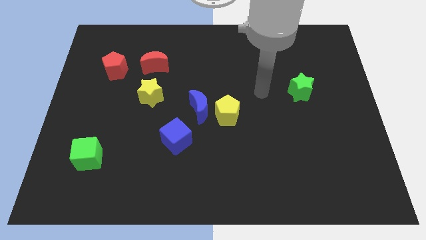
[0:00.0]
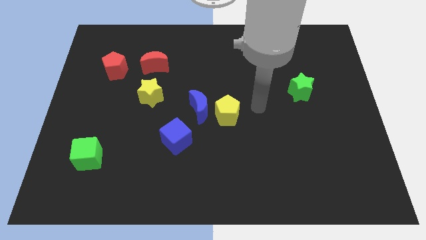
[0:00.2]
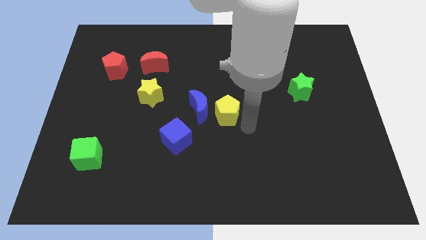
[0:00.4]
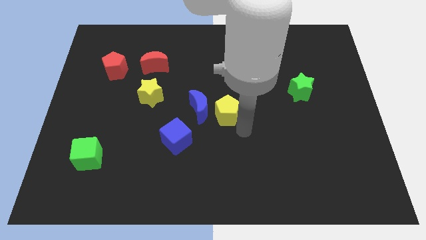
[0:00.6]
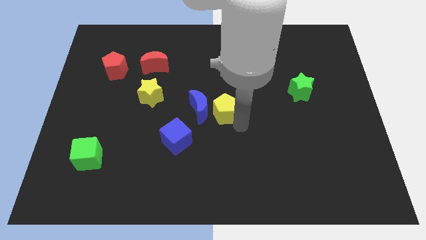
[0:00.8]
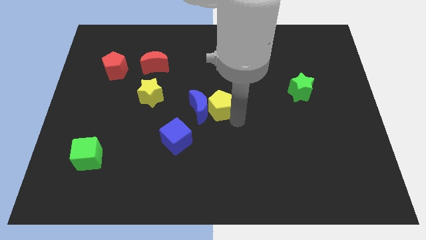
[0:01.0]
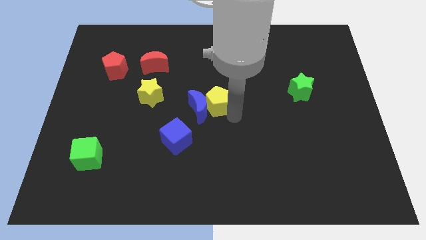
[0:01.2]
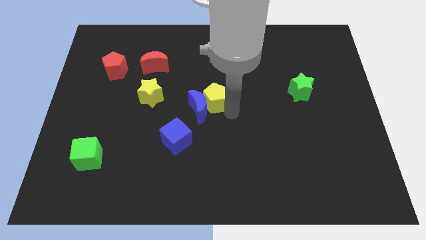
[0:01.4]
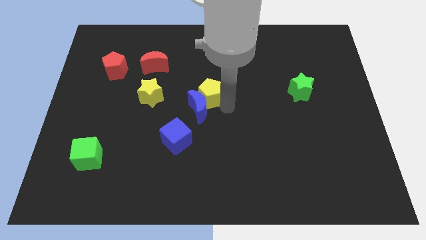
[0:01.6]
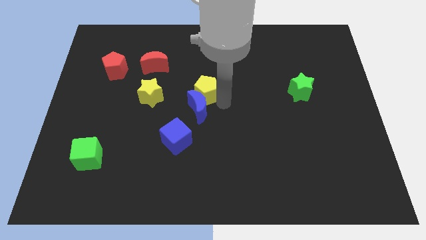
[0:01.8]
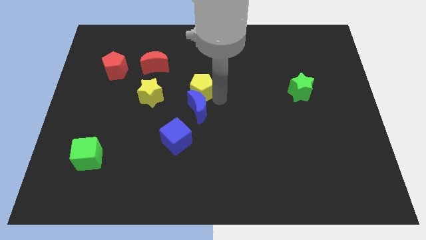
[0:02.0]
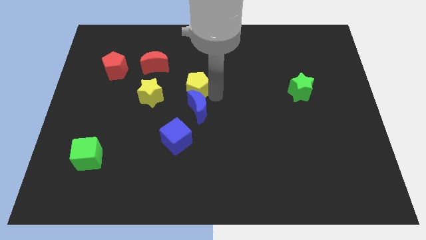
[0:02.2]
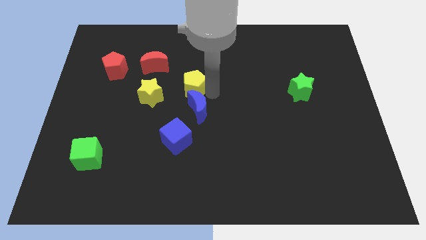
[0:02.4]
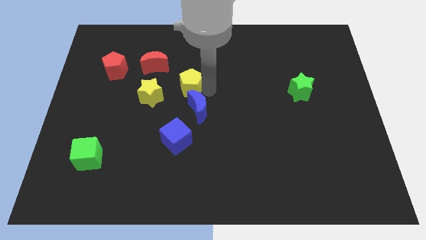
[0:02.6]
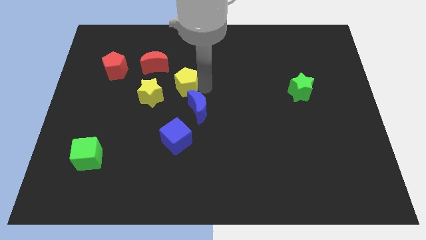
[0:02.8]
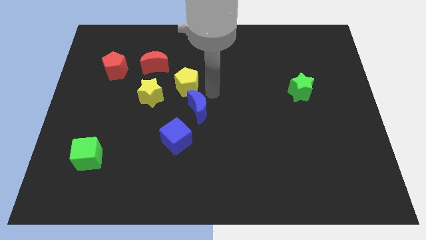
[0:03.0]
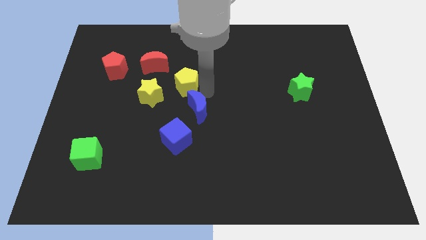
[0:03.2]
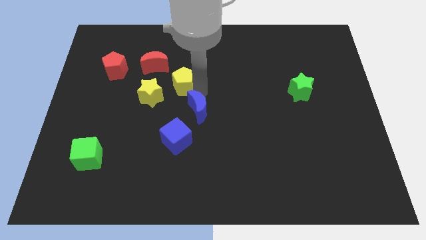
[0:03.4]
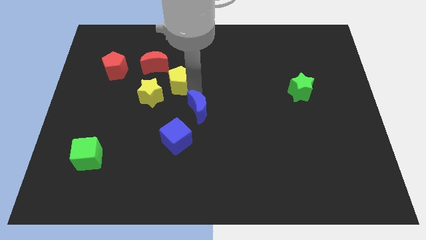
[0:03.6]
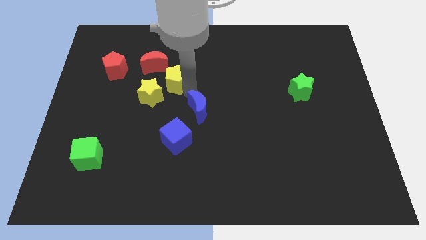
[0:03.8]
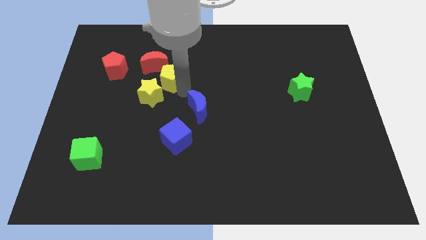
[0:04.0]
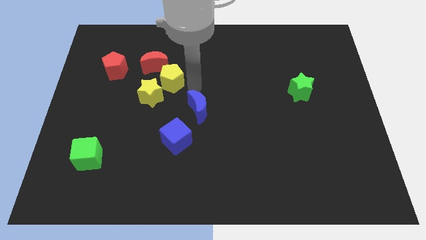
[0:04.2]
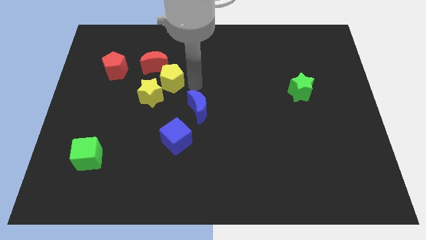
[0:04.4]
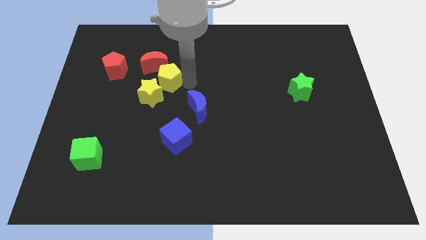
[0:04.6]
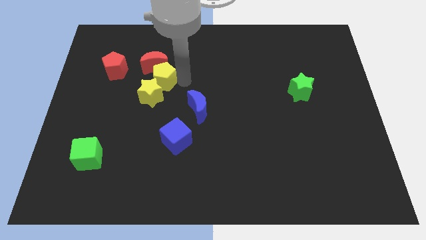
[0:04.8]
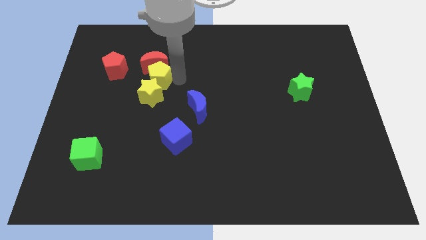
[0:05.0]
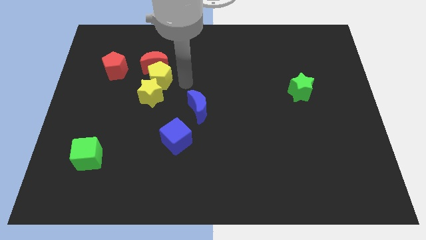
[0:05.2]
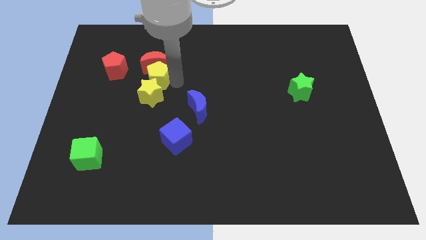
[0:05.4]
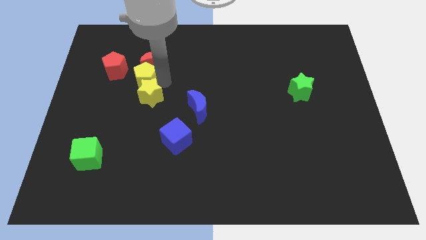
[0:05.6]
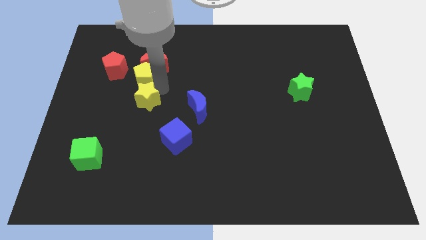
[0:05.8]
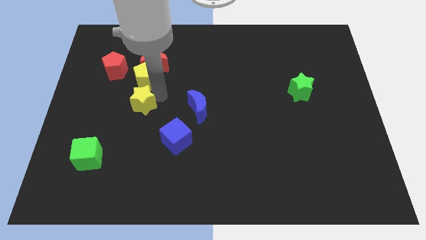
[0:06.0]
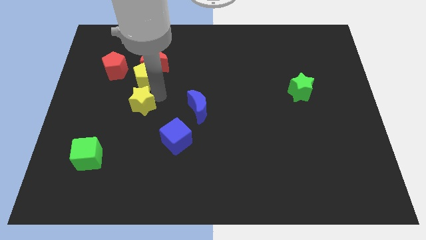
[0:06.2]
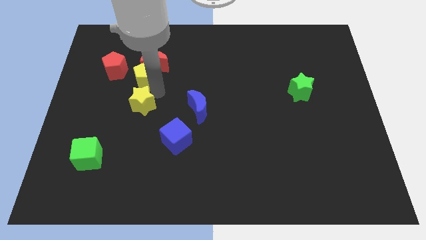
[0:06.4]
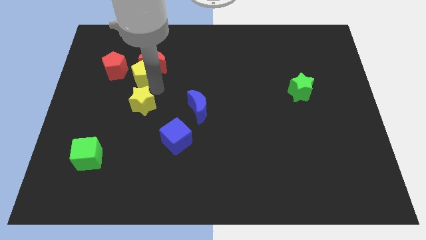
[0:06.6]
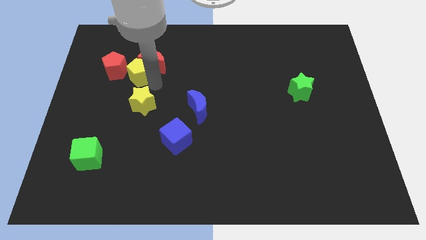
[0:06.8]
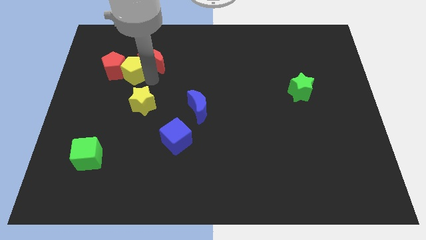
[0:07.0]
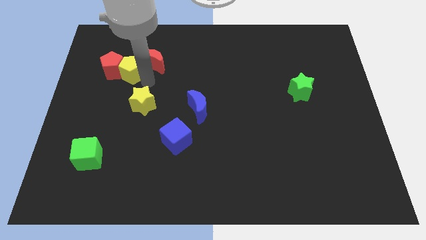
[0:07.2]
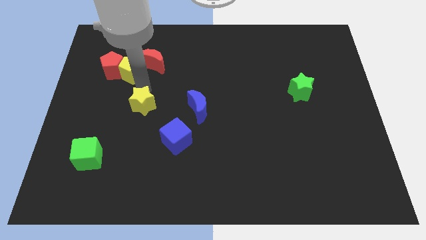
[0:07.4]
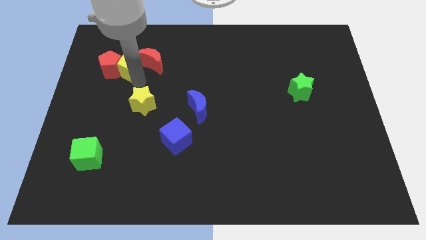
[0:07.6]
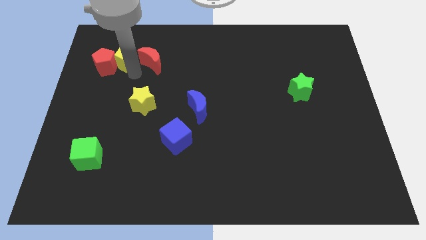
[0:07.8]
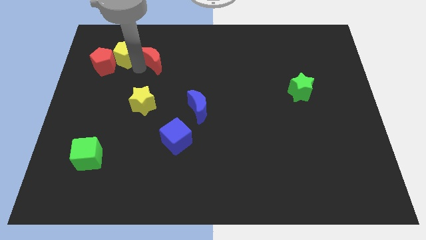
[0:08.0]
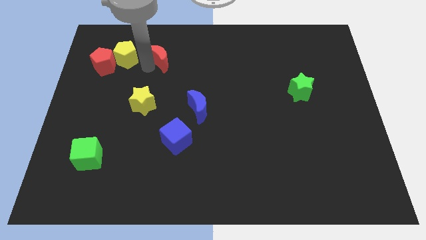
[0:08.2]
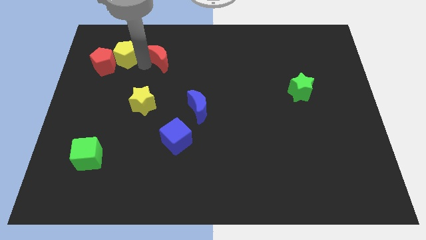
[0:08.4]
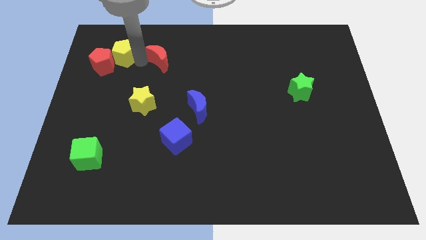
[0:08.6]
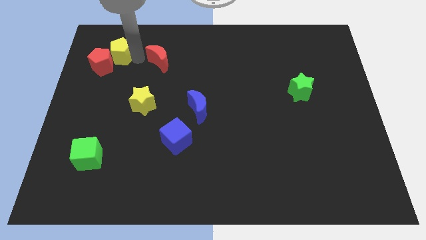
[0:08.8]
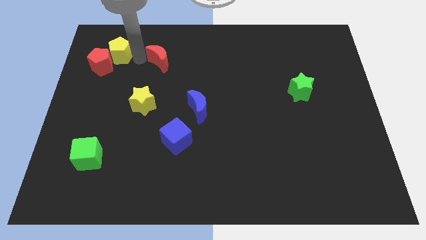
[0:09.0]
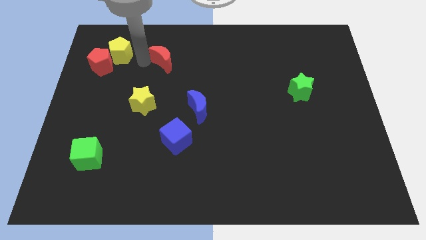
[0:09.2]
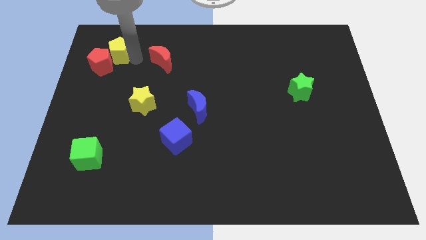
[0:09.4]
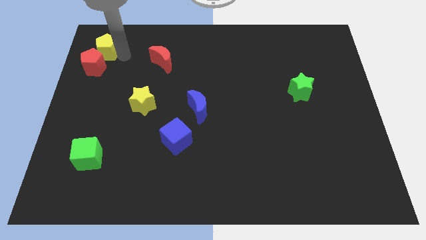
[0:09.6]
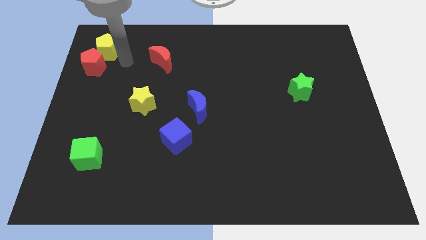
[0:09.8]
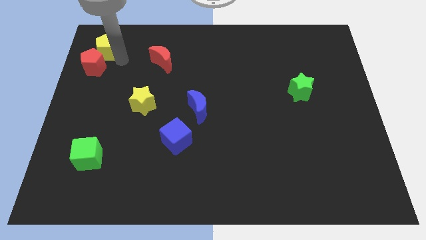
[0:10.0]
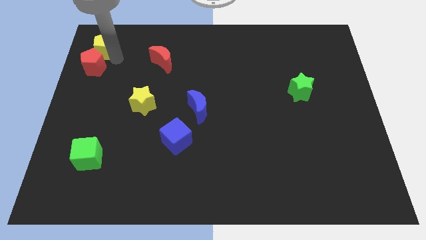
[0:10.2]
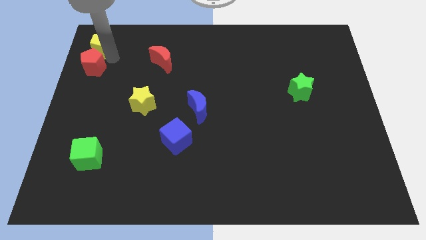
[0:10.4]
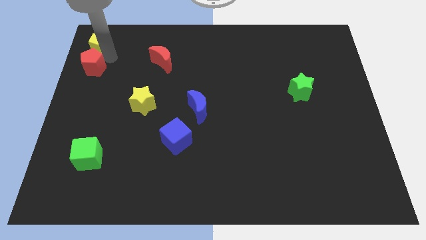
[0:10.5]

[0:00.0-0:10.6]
push the yellow pentagon to the top left corner

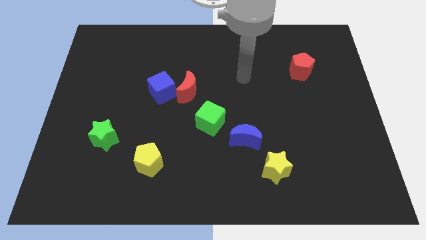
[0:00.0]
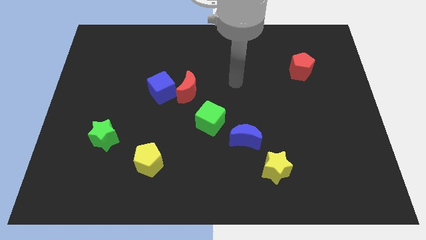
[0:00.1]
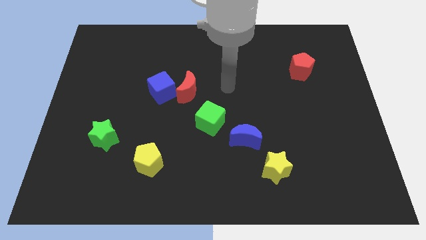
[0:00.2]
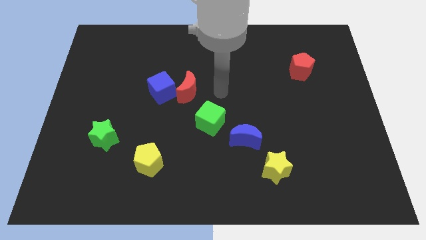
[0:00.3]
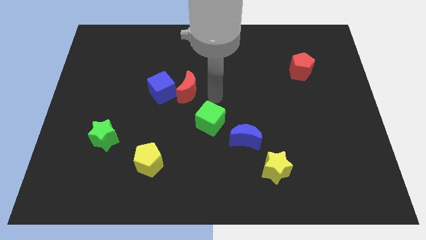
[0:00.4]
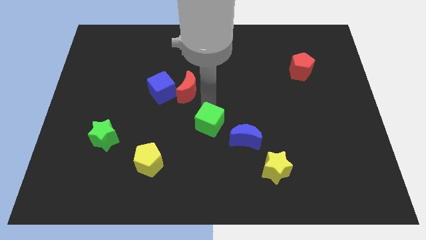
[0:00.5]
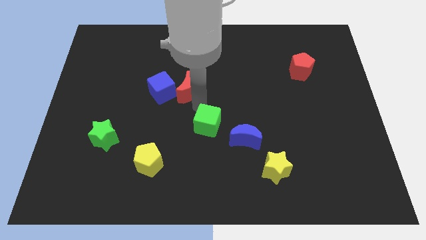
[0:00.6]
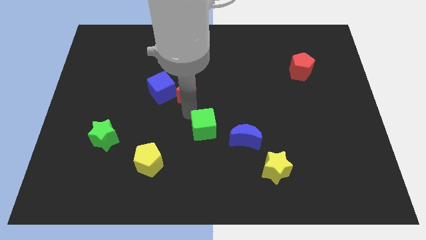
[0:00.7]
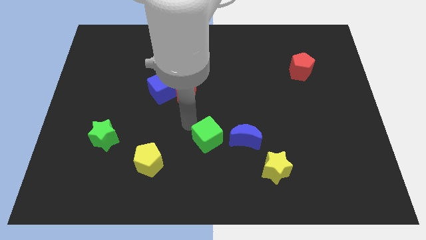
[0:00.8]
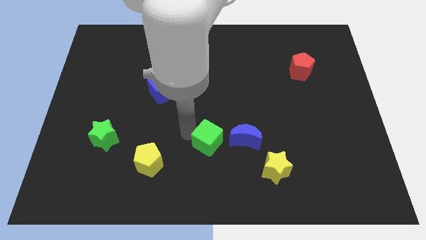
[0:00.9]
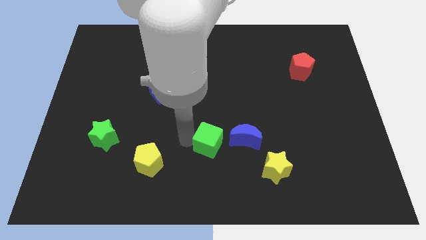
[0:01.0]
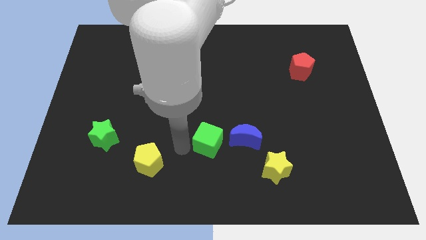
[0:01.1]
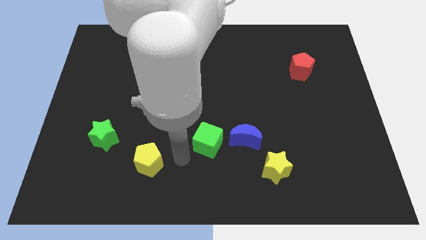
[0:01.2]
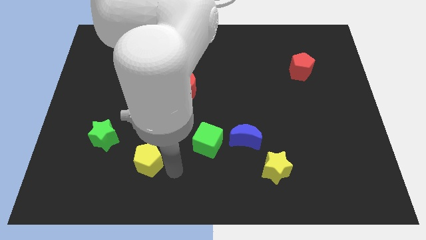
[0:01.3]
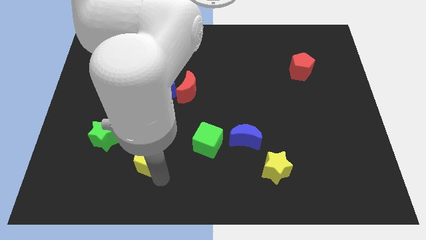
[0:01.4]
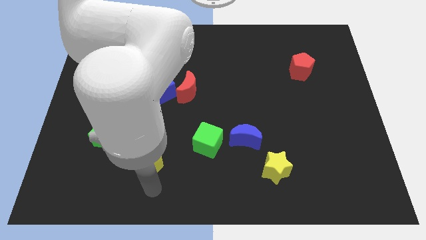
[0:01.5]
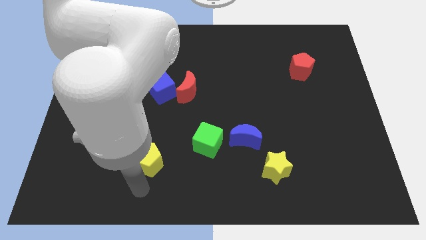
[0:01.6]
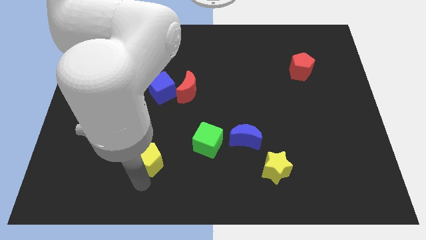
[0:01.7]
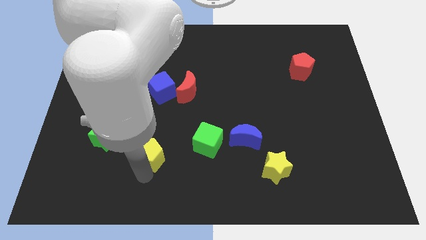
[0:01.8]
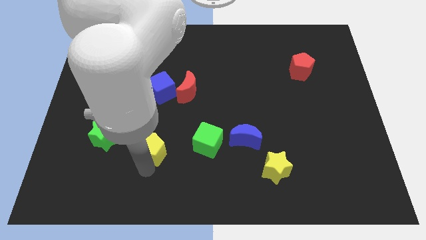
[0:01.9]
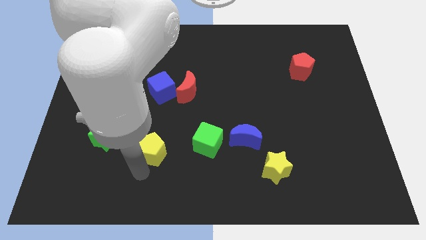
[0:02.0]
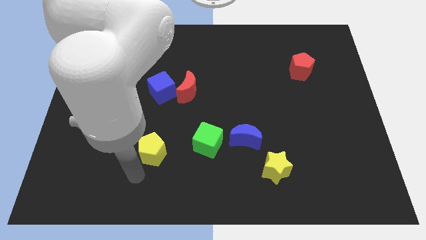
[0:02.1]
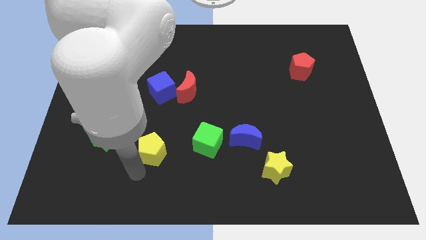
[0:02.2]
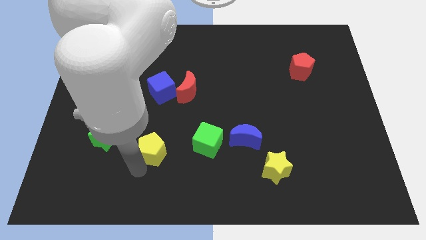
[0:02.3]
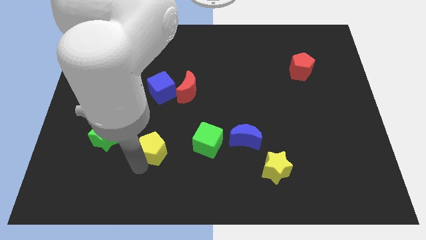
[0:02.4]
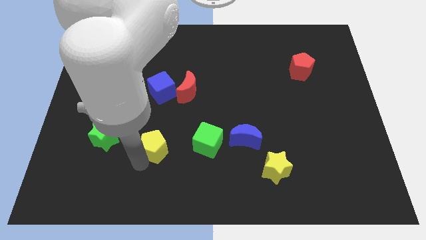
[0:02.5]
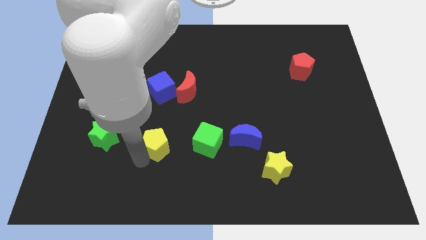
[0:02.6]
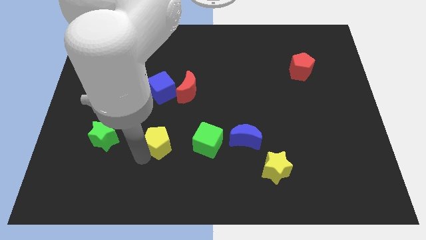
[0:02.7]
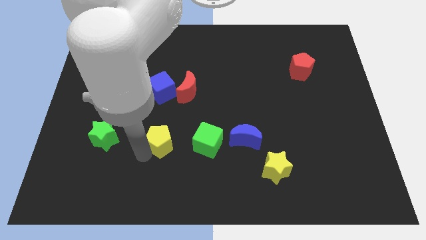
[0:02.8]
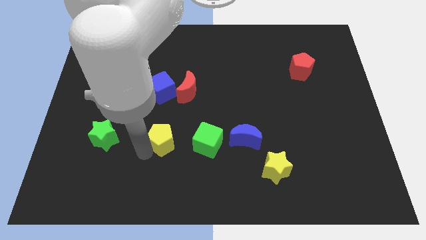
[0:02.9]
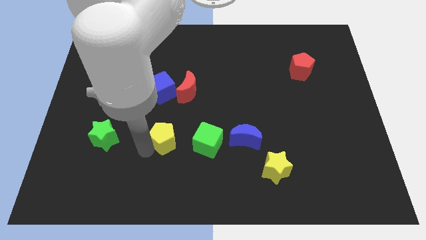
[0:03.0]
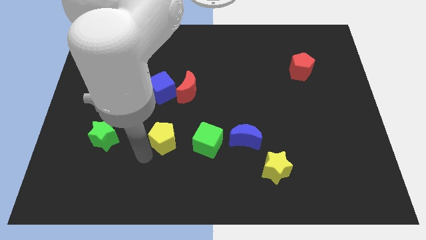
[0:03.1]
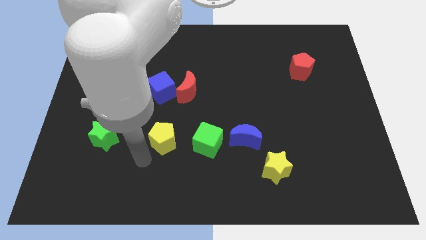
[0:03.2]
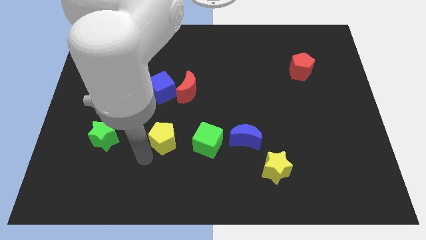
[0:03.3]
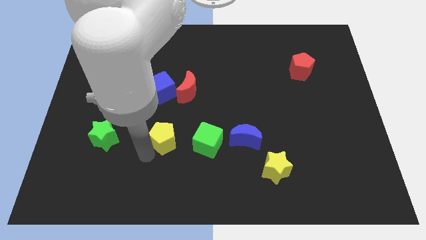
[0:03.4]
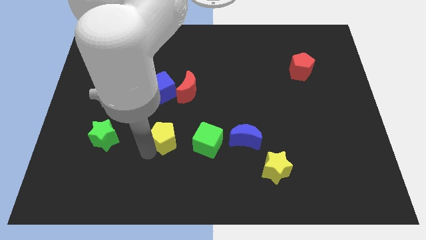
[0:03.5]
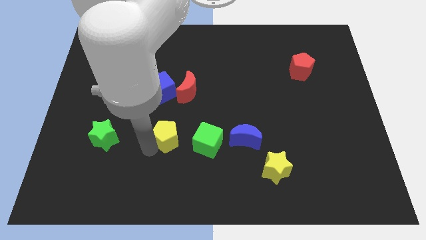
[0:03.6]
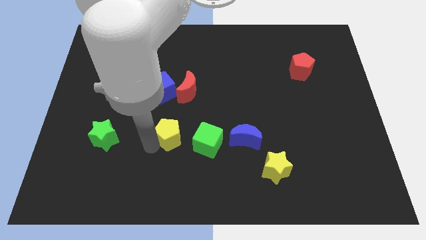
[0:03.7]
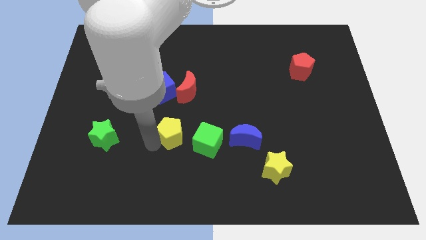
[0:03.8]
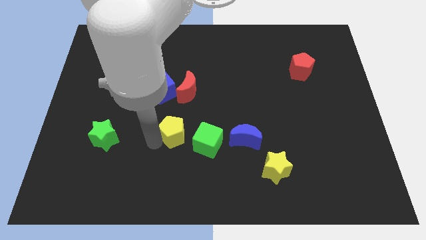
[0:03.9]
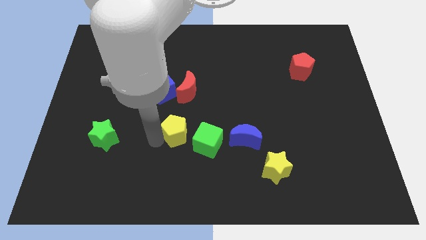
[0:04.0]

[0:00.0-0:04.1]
move the yellow pentagon to the center
